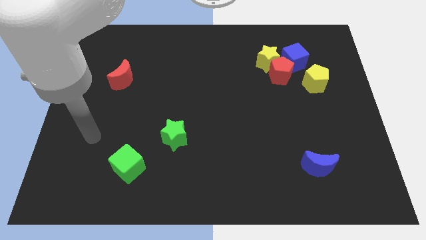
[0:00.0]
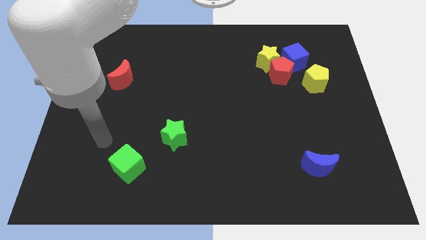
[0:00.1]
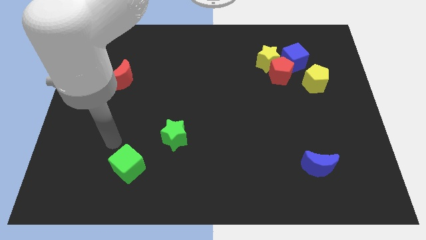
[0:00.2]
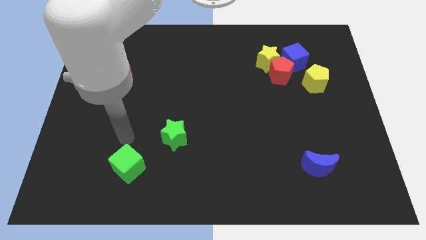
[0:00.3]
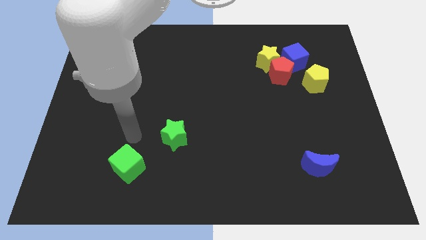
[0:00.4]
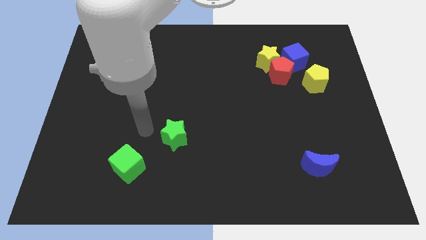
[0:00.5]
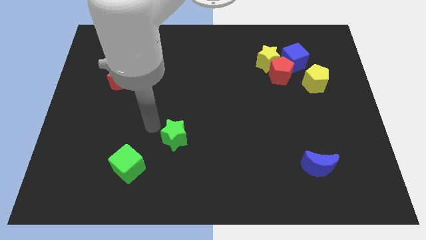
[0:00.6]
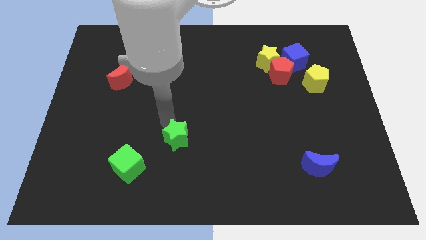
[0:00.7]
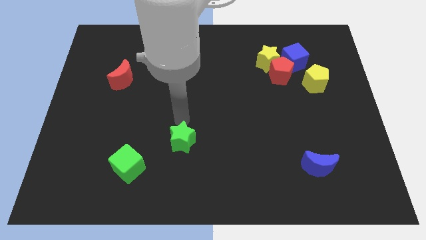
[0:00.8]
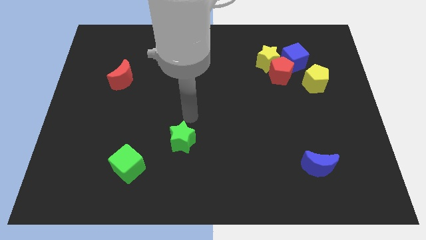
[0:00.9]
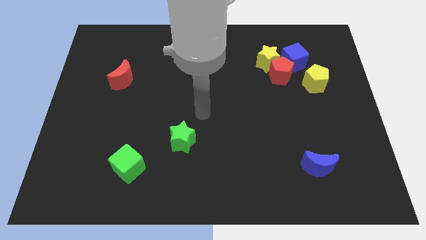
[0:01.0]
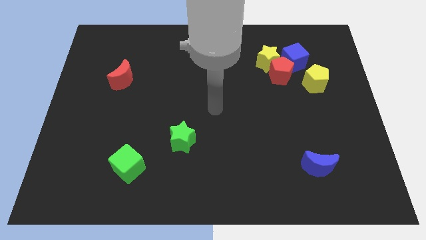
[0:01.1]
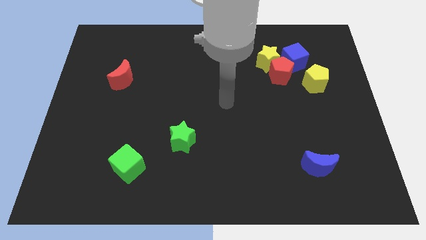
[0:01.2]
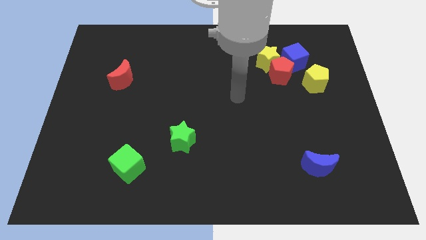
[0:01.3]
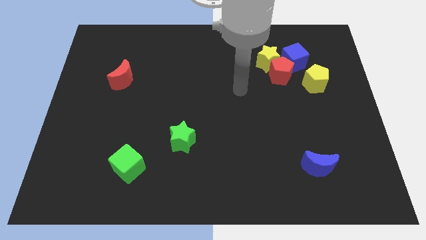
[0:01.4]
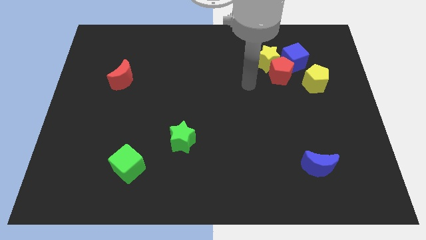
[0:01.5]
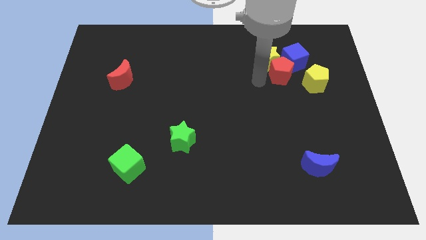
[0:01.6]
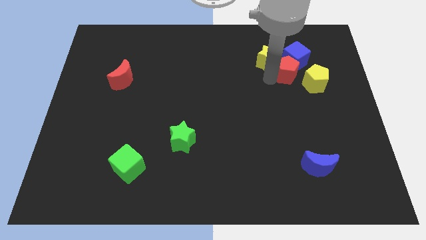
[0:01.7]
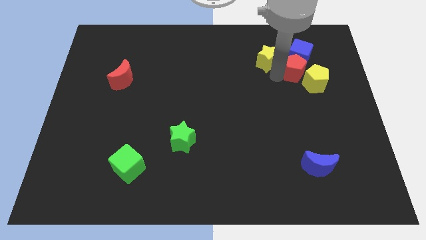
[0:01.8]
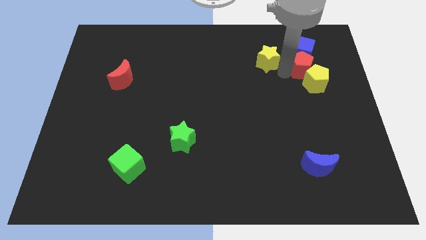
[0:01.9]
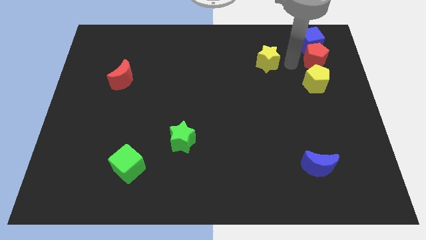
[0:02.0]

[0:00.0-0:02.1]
move the yellow star away from the red pentagon and blue cube

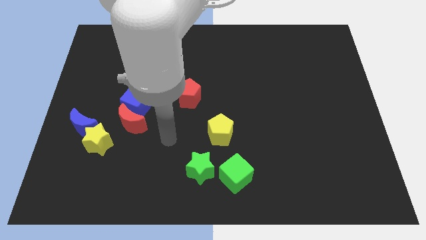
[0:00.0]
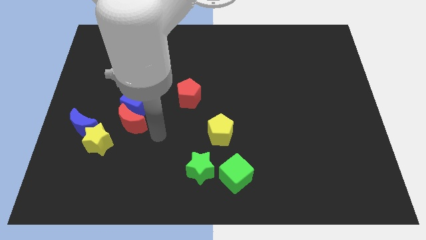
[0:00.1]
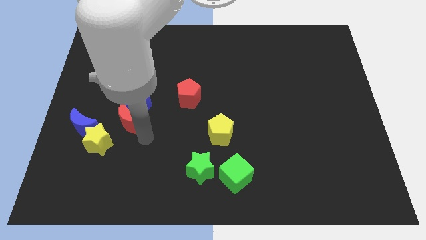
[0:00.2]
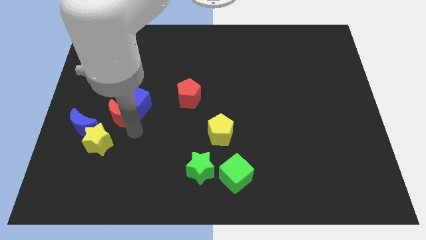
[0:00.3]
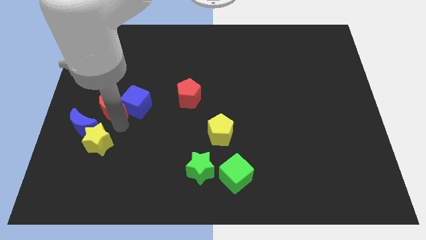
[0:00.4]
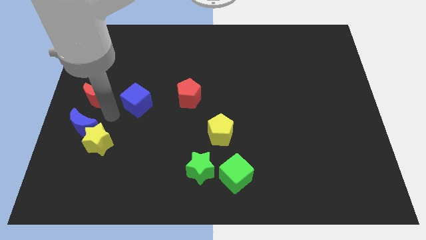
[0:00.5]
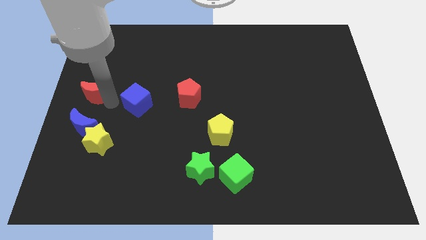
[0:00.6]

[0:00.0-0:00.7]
move the blue cube away from the red moon

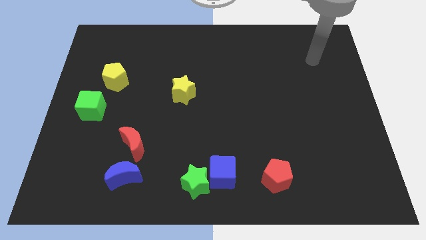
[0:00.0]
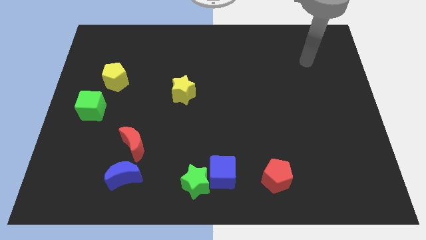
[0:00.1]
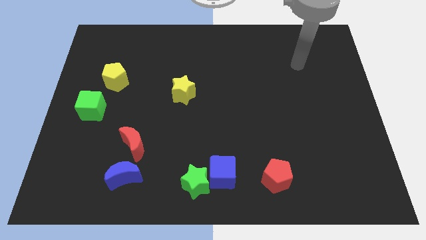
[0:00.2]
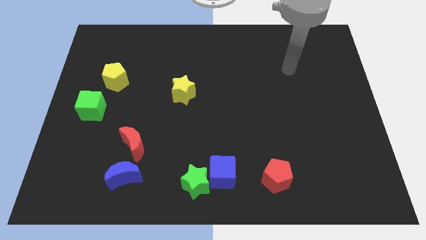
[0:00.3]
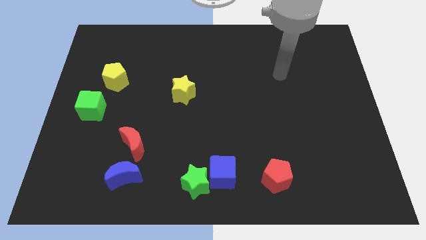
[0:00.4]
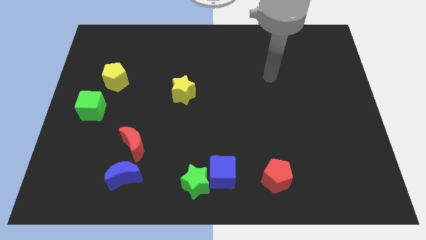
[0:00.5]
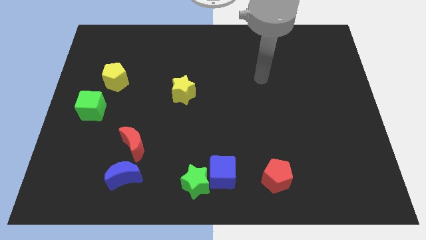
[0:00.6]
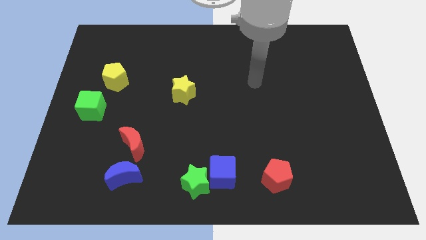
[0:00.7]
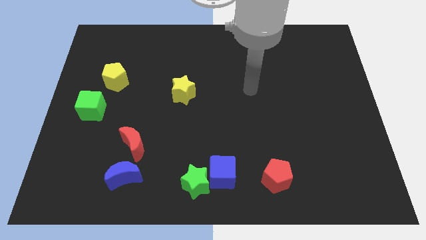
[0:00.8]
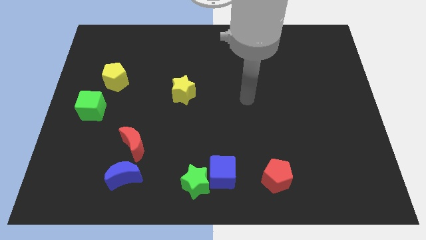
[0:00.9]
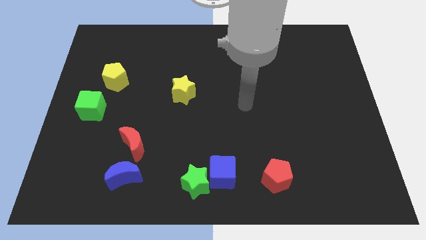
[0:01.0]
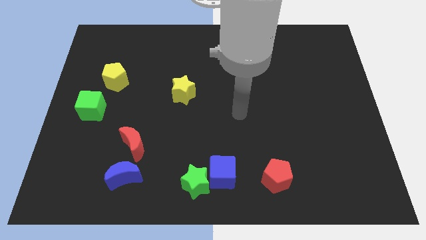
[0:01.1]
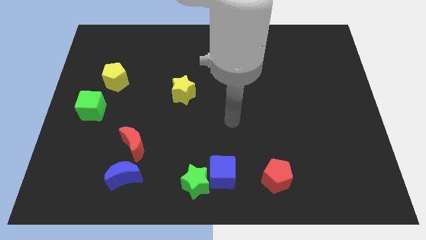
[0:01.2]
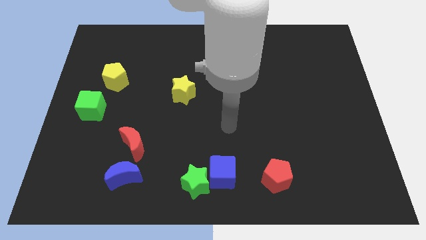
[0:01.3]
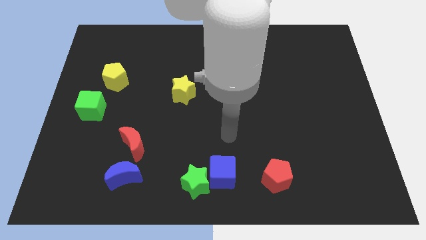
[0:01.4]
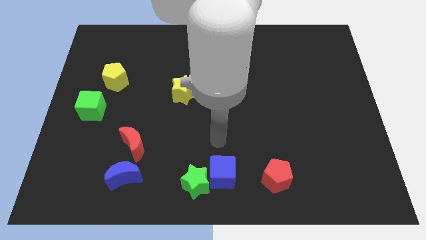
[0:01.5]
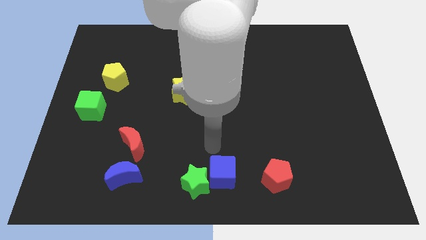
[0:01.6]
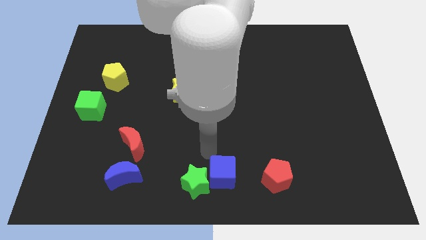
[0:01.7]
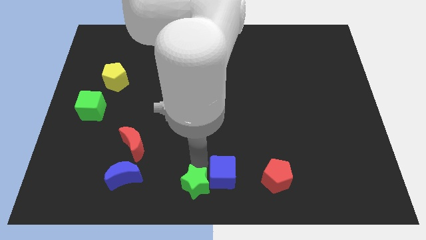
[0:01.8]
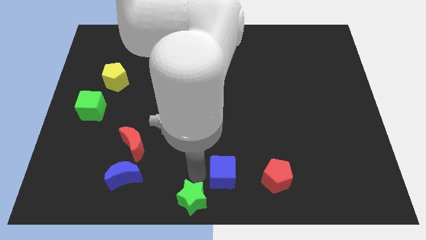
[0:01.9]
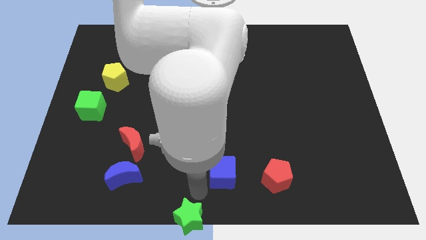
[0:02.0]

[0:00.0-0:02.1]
move the blue cube away from the green star

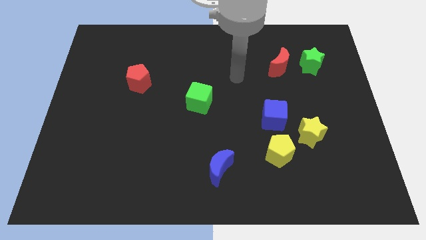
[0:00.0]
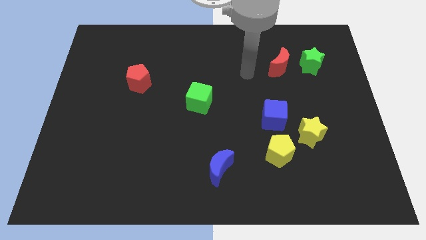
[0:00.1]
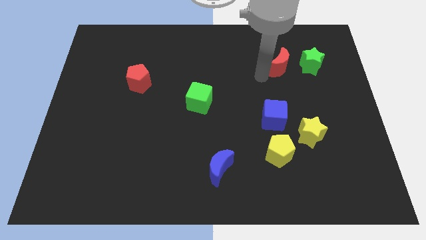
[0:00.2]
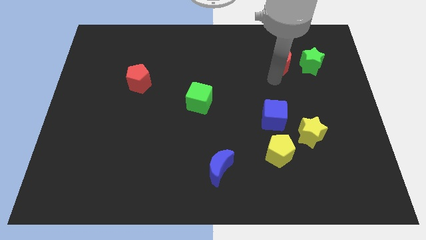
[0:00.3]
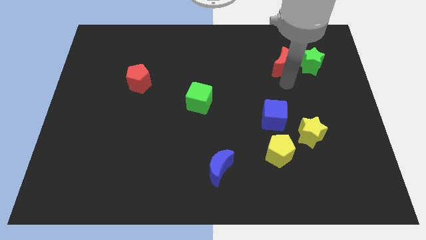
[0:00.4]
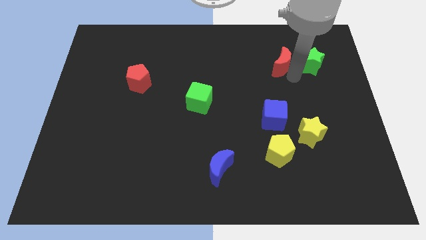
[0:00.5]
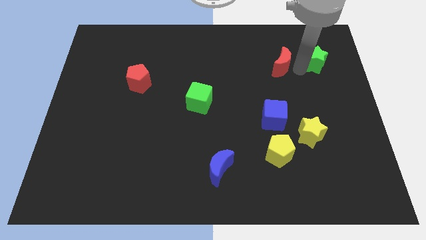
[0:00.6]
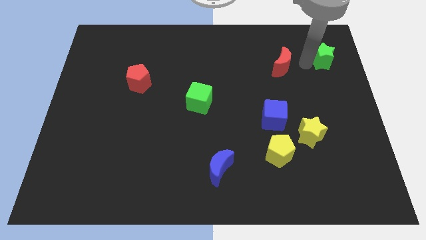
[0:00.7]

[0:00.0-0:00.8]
move the red moon away from the green star

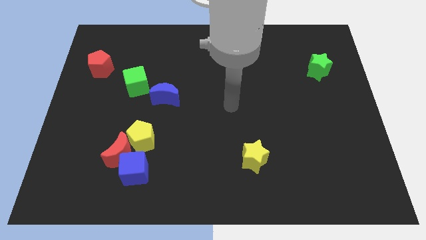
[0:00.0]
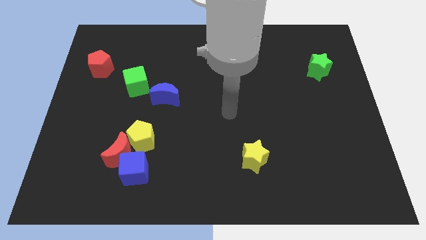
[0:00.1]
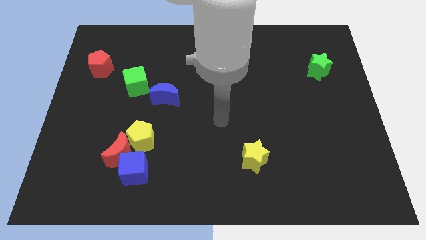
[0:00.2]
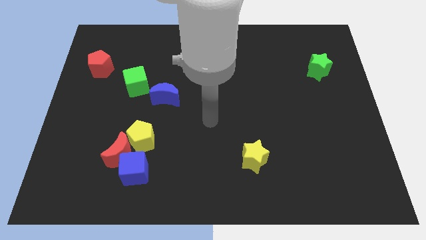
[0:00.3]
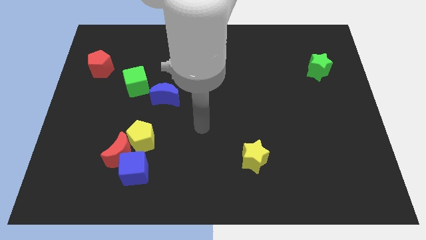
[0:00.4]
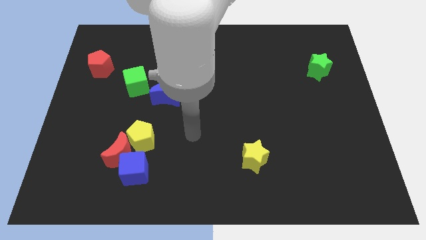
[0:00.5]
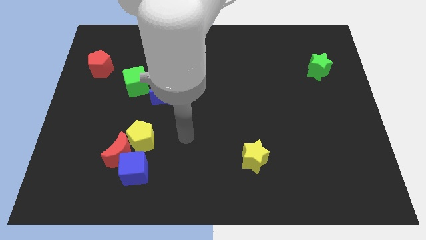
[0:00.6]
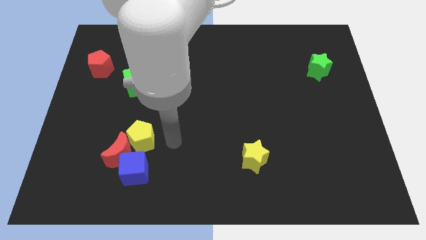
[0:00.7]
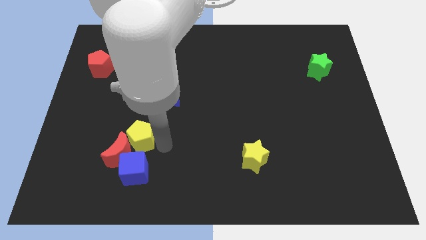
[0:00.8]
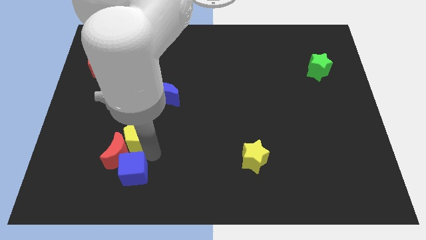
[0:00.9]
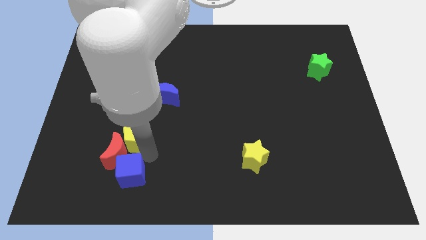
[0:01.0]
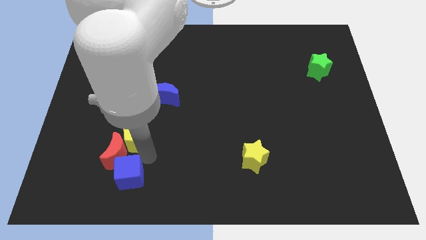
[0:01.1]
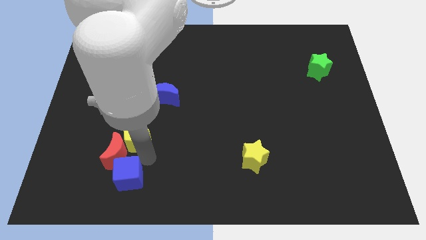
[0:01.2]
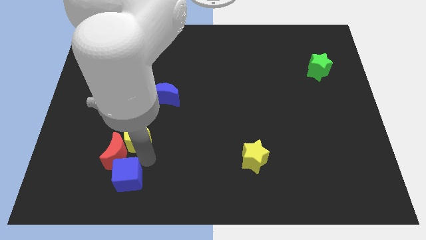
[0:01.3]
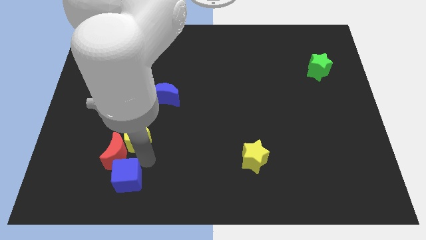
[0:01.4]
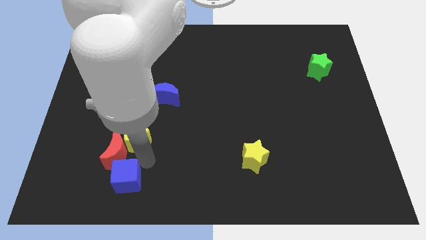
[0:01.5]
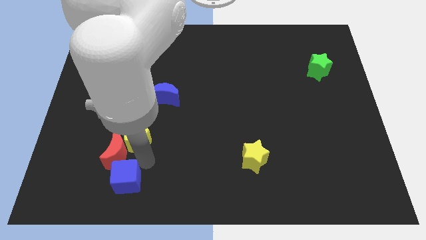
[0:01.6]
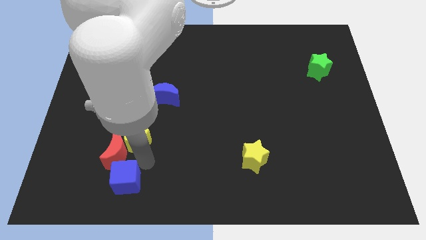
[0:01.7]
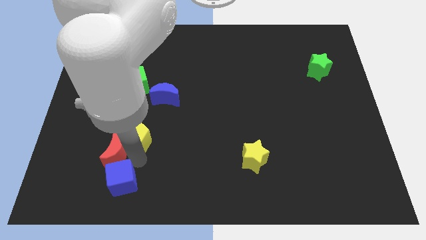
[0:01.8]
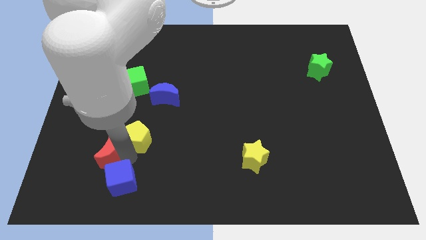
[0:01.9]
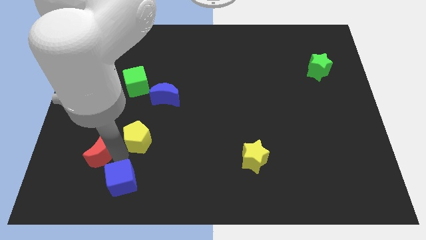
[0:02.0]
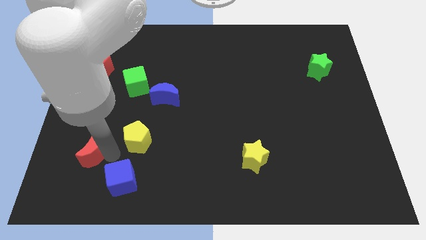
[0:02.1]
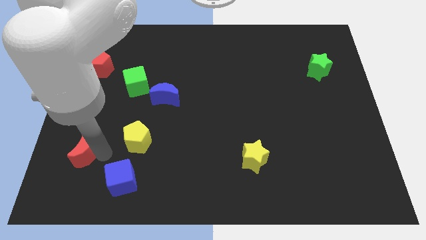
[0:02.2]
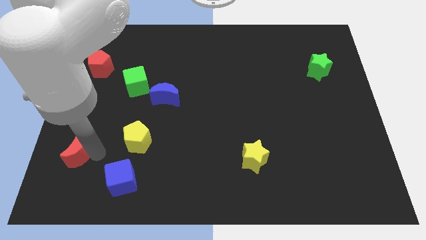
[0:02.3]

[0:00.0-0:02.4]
move the red moon away from the blue cube and yellow pentagon

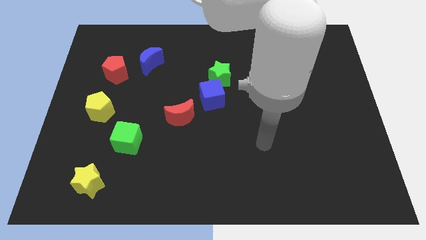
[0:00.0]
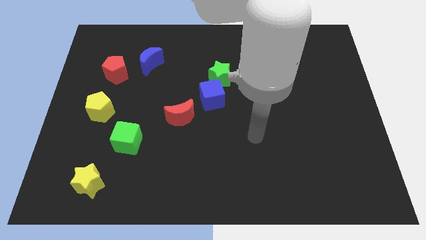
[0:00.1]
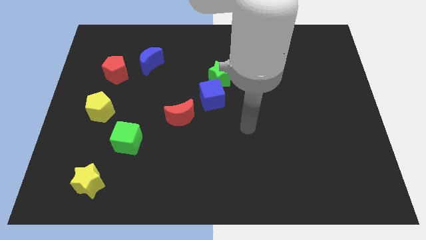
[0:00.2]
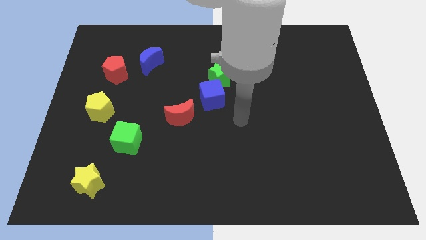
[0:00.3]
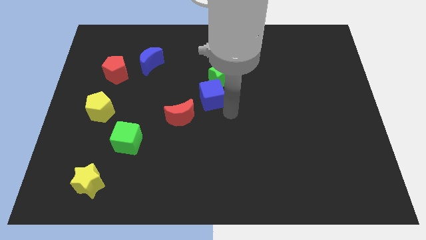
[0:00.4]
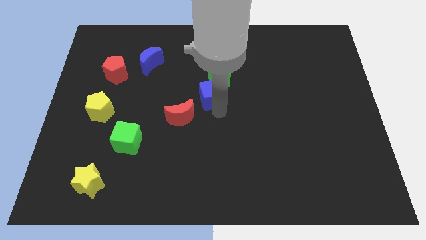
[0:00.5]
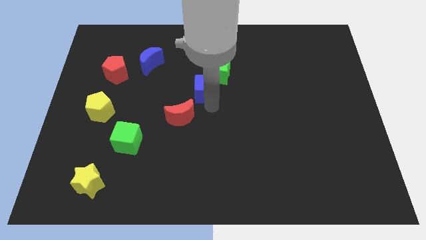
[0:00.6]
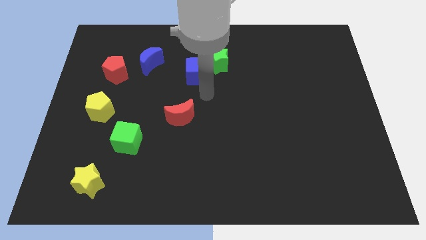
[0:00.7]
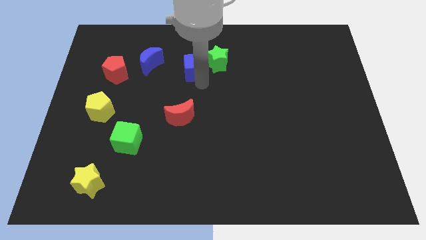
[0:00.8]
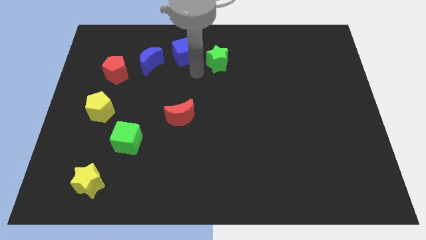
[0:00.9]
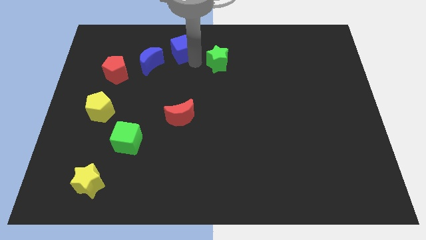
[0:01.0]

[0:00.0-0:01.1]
separate the green star from the blue cube

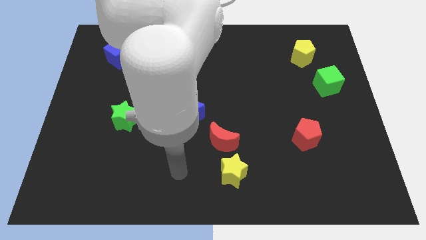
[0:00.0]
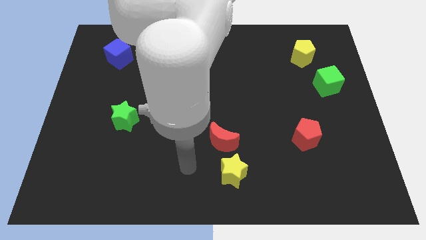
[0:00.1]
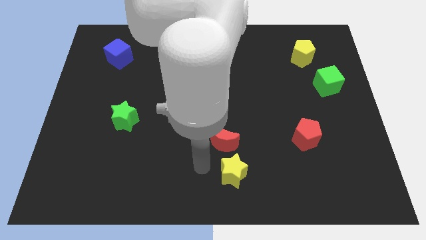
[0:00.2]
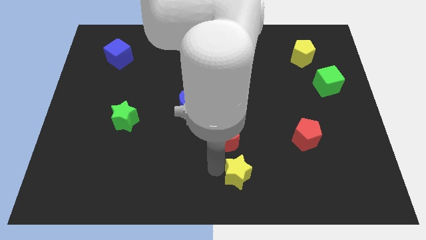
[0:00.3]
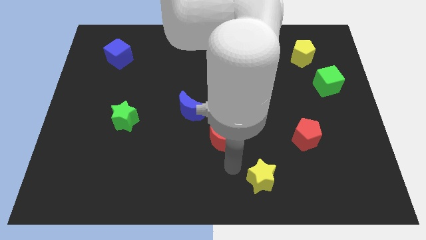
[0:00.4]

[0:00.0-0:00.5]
move the red moon away from the yellow star
